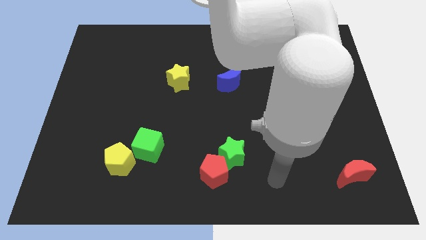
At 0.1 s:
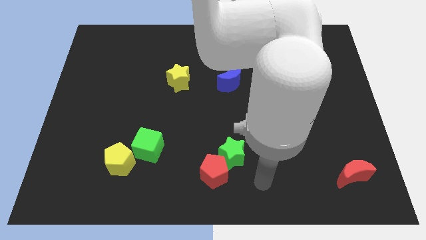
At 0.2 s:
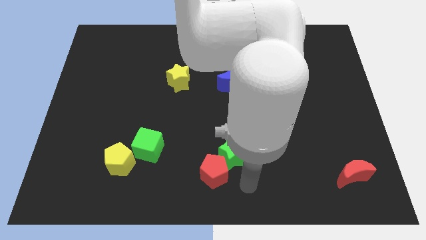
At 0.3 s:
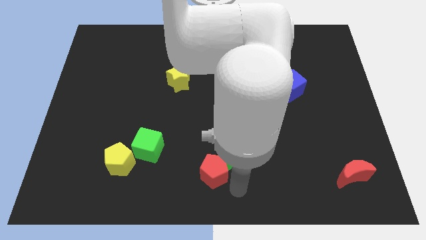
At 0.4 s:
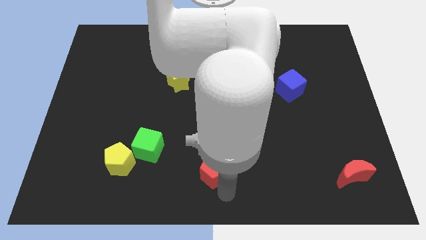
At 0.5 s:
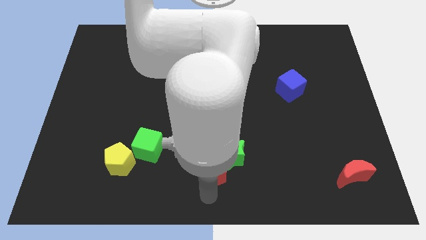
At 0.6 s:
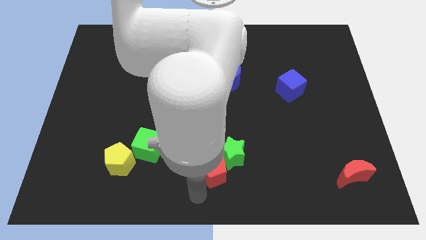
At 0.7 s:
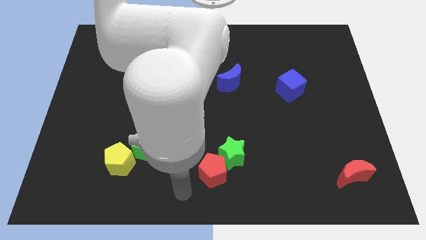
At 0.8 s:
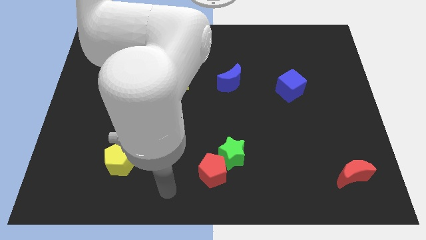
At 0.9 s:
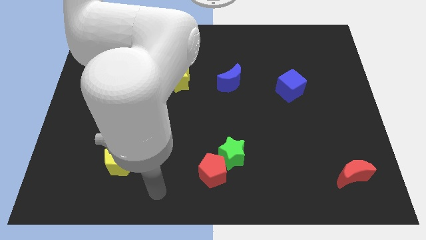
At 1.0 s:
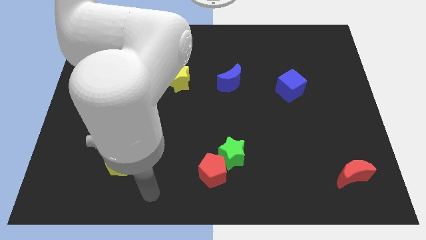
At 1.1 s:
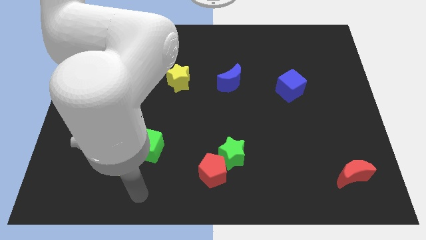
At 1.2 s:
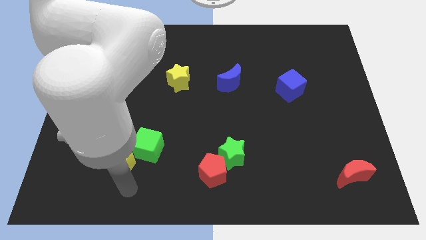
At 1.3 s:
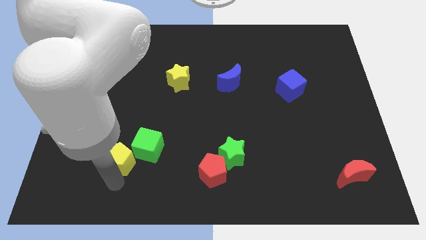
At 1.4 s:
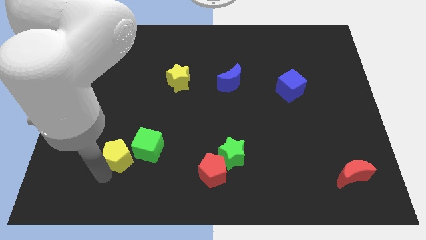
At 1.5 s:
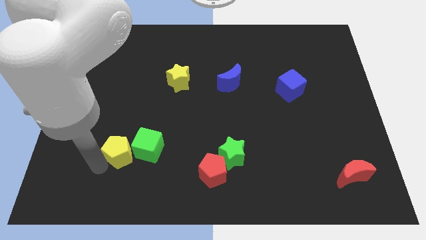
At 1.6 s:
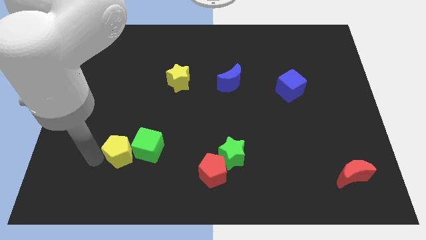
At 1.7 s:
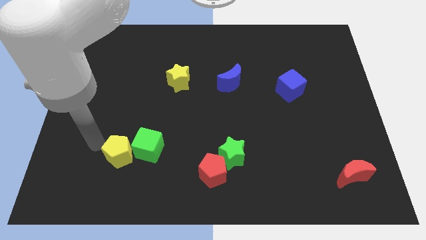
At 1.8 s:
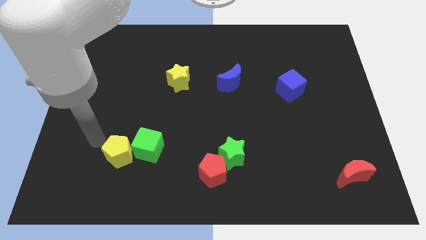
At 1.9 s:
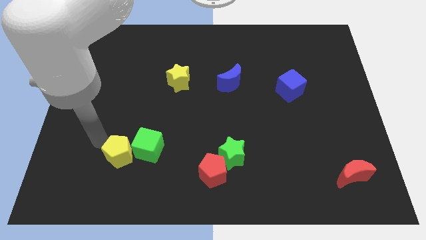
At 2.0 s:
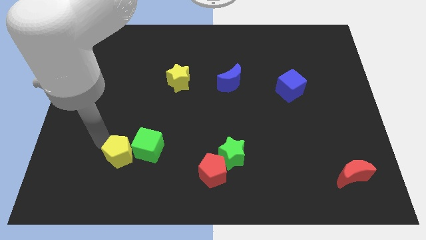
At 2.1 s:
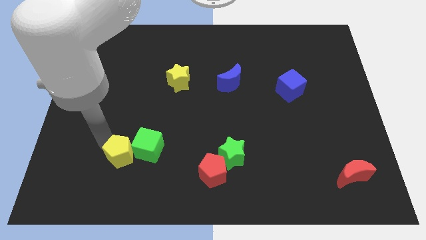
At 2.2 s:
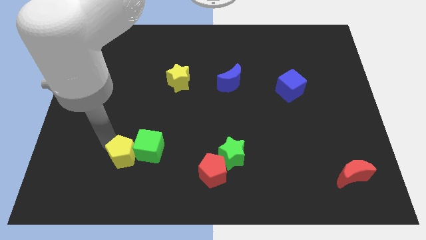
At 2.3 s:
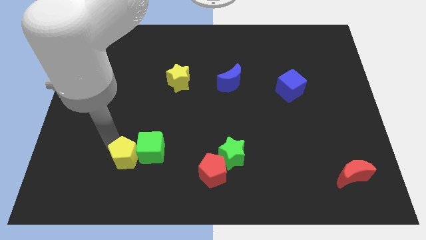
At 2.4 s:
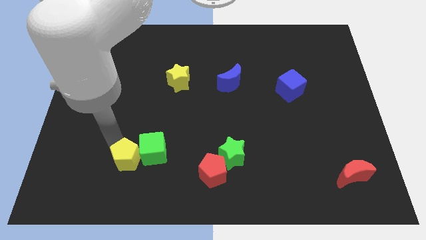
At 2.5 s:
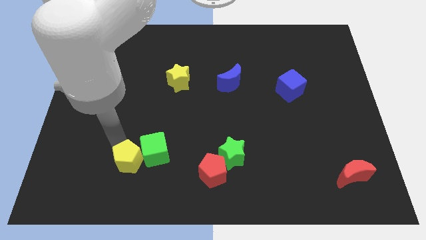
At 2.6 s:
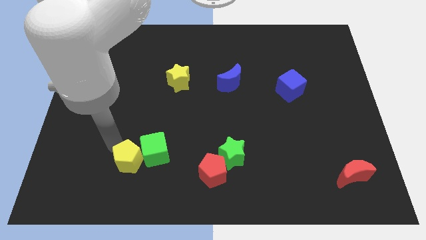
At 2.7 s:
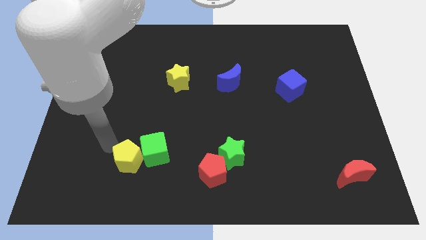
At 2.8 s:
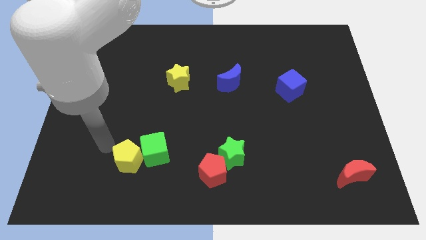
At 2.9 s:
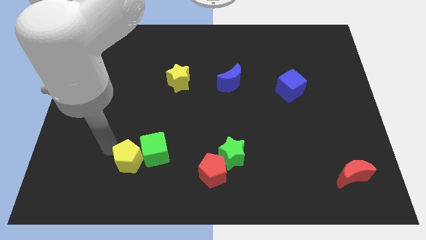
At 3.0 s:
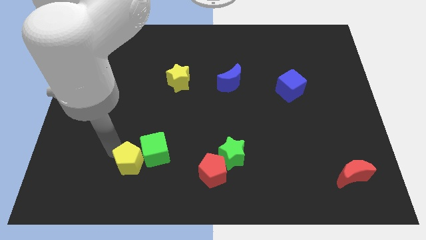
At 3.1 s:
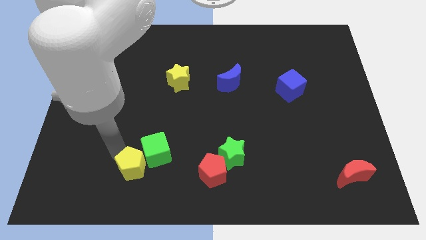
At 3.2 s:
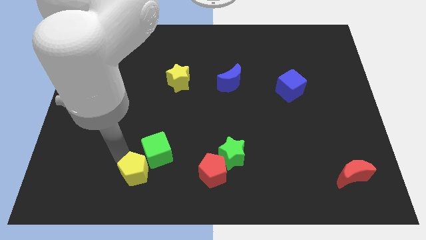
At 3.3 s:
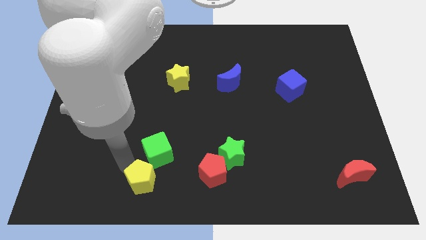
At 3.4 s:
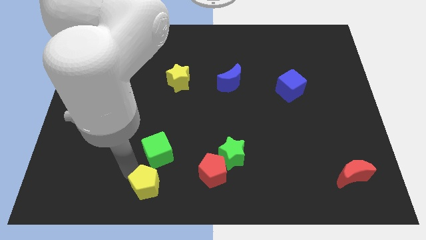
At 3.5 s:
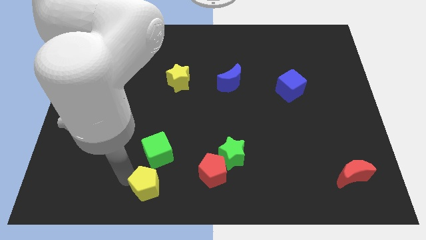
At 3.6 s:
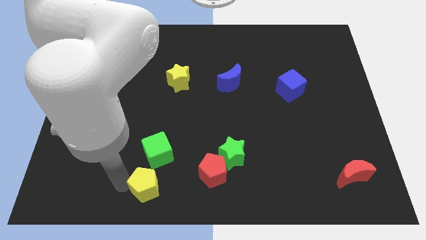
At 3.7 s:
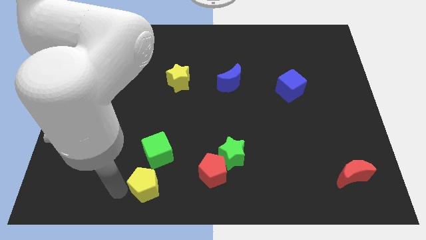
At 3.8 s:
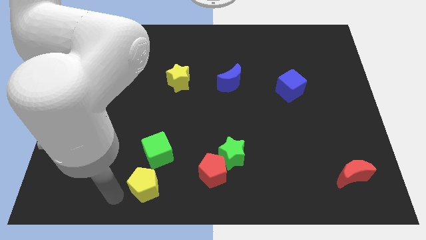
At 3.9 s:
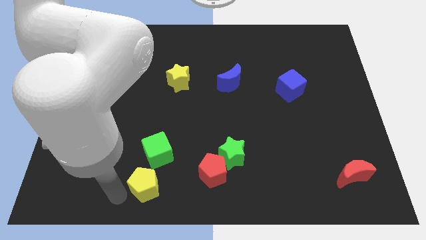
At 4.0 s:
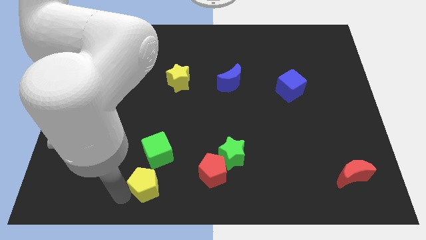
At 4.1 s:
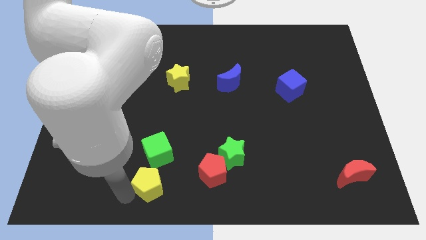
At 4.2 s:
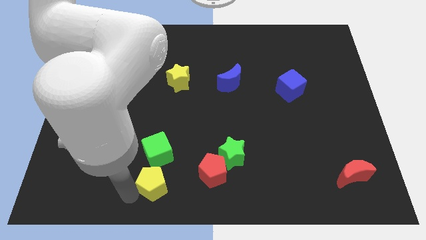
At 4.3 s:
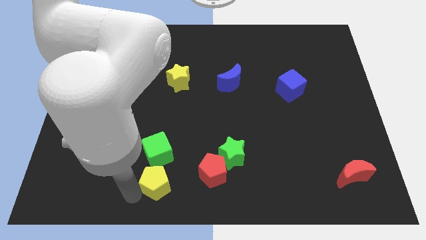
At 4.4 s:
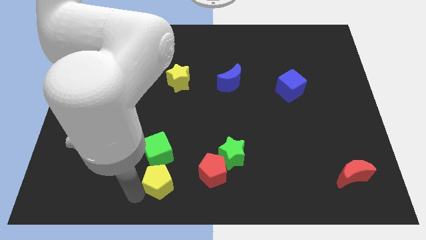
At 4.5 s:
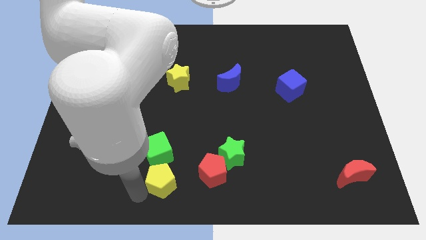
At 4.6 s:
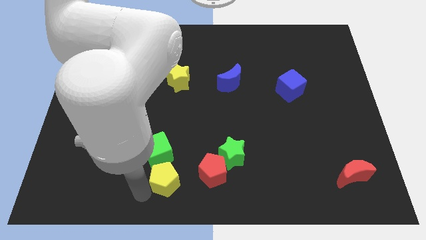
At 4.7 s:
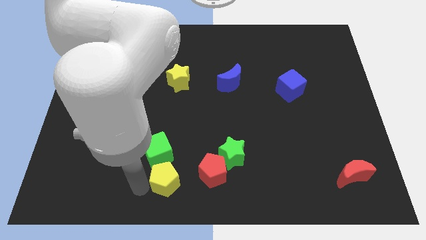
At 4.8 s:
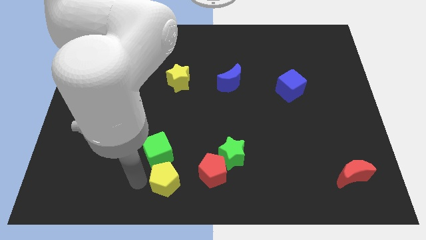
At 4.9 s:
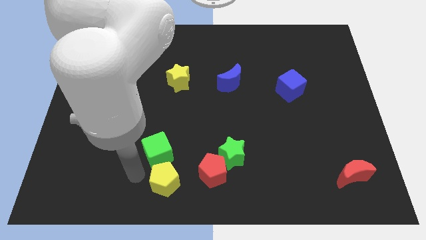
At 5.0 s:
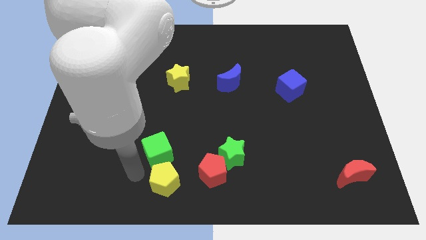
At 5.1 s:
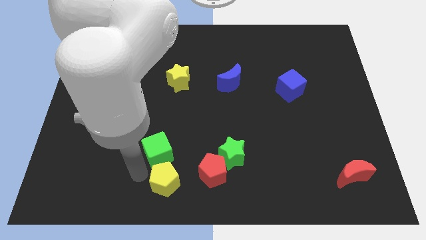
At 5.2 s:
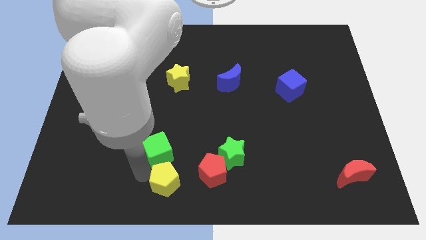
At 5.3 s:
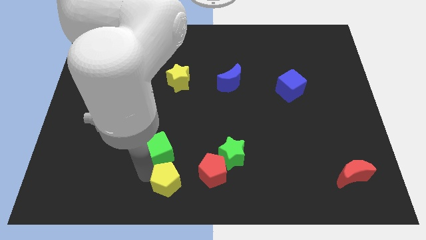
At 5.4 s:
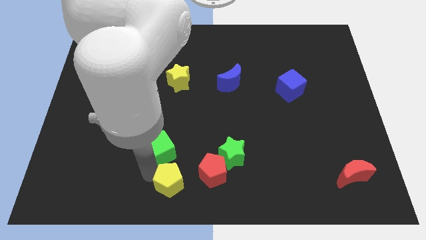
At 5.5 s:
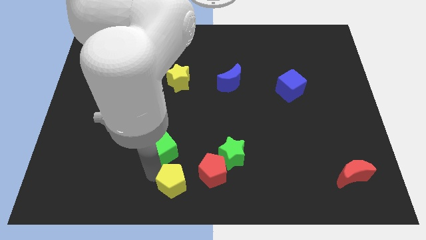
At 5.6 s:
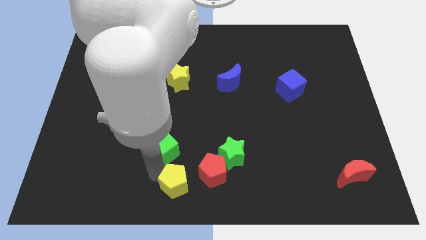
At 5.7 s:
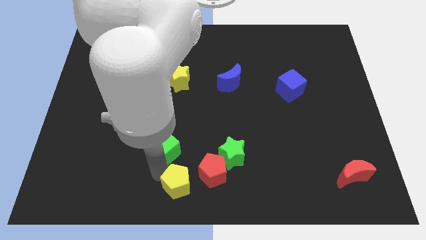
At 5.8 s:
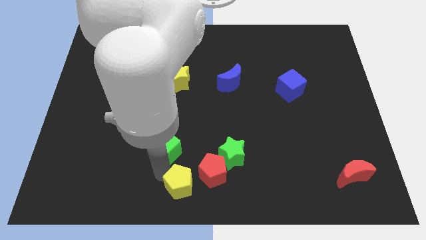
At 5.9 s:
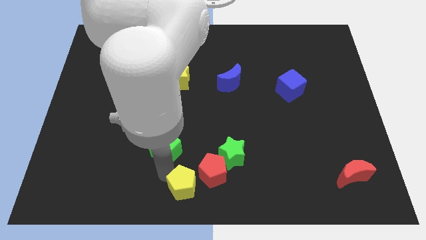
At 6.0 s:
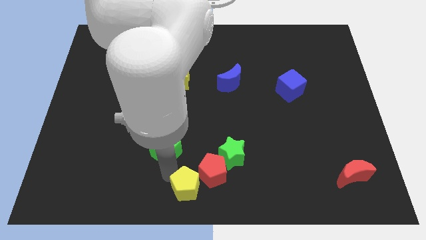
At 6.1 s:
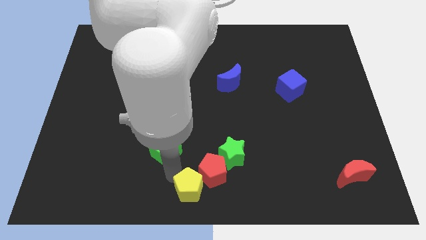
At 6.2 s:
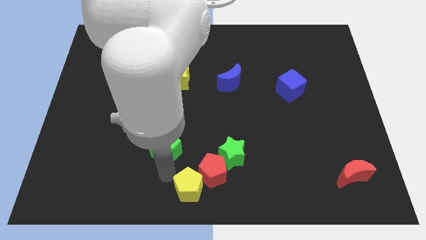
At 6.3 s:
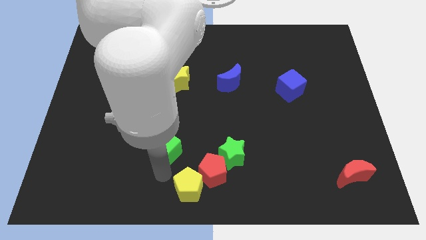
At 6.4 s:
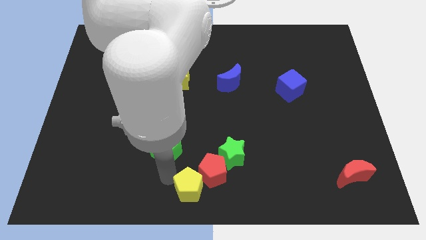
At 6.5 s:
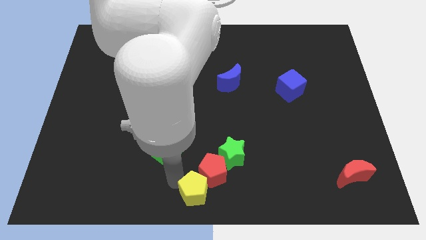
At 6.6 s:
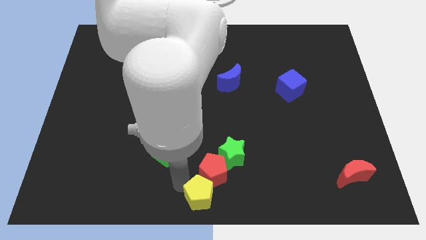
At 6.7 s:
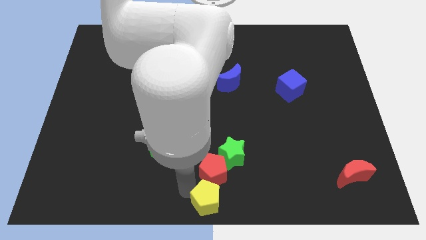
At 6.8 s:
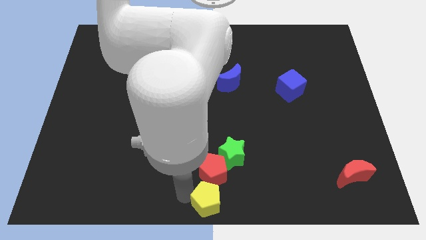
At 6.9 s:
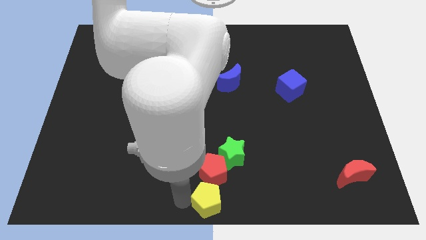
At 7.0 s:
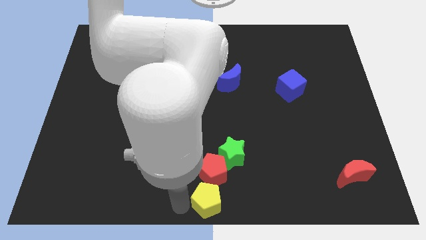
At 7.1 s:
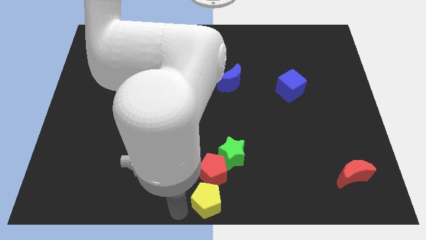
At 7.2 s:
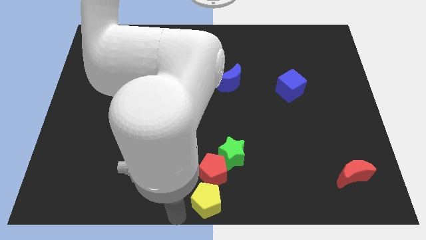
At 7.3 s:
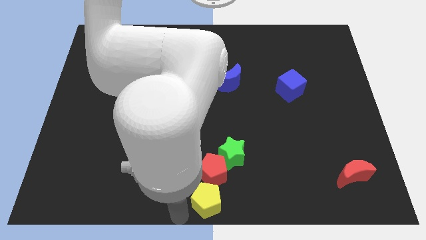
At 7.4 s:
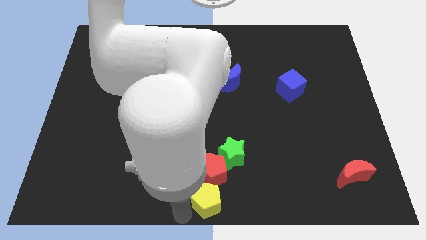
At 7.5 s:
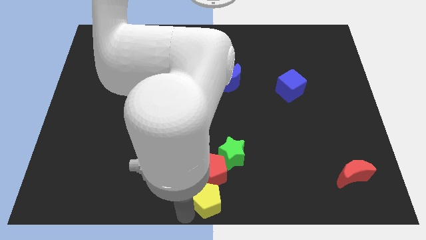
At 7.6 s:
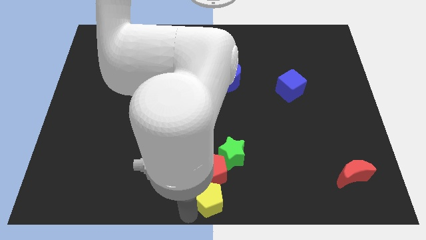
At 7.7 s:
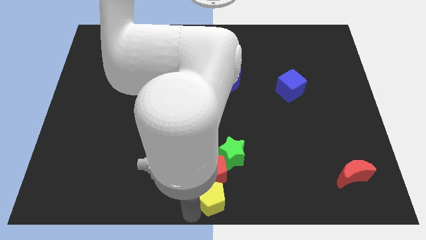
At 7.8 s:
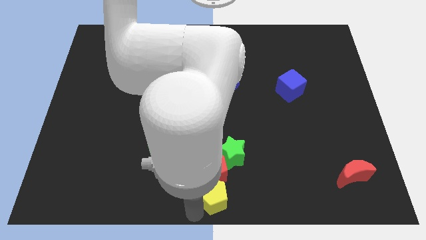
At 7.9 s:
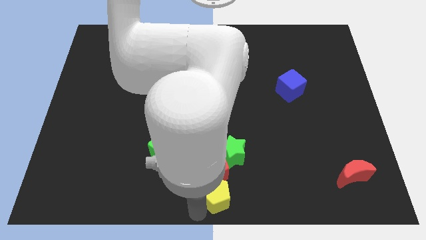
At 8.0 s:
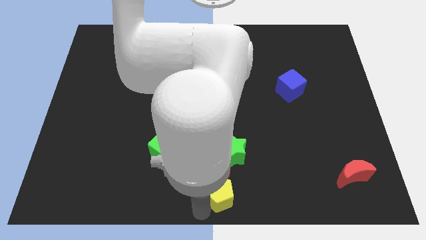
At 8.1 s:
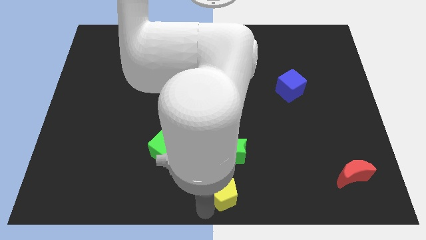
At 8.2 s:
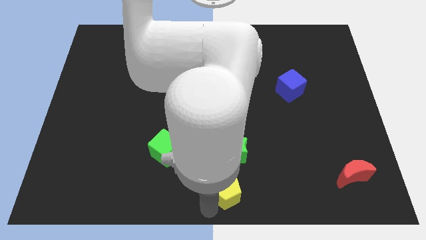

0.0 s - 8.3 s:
push the yellow pentagon right
